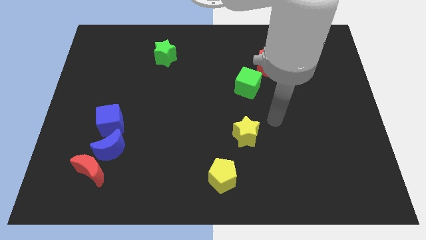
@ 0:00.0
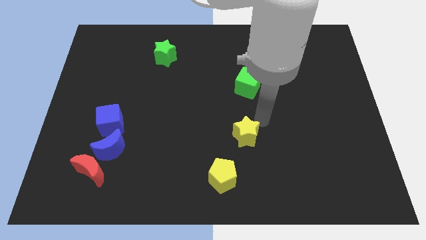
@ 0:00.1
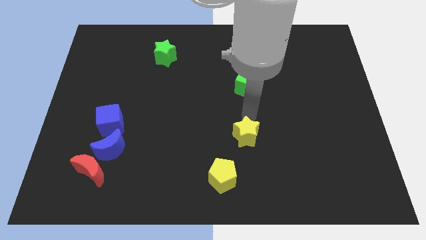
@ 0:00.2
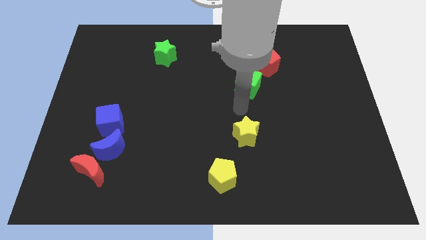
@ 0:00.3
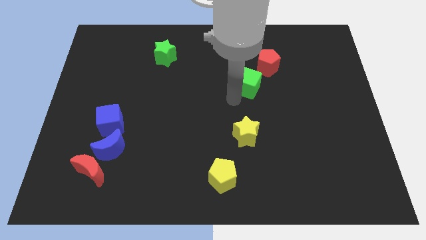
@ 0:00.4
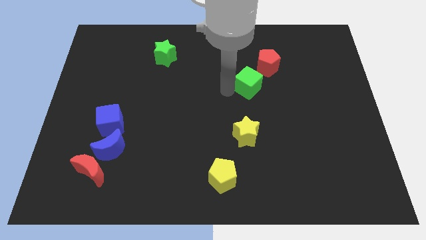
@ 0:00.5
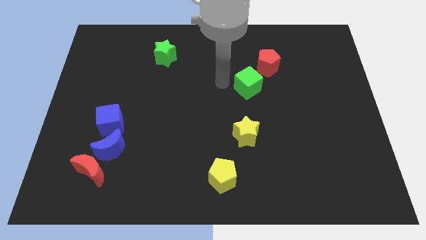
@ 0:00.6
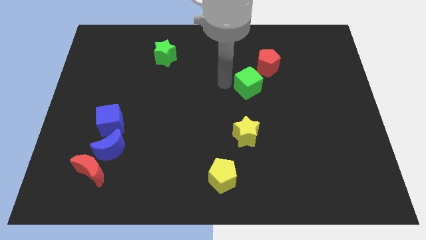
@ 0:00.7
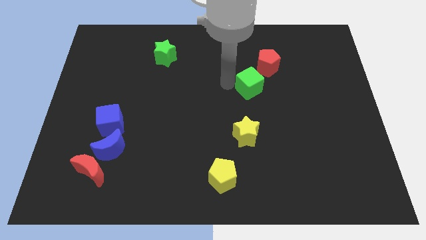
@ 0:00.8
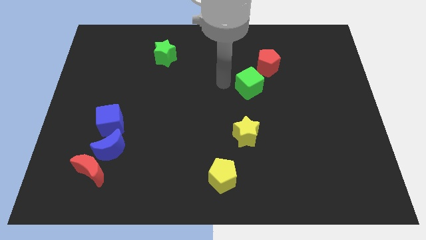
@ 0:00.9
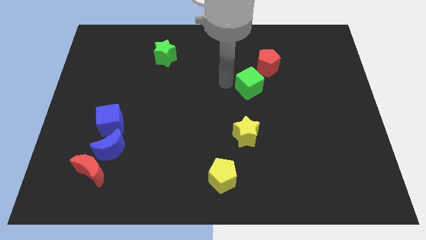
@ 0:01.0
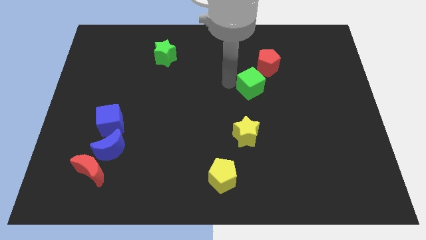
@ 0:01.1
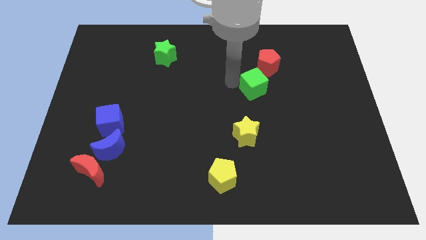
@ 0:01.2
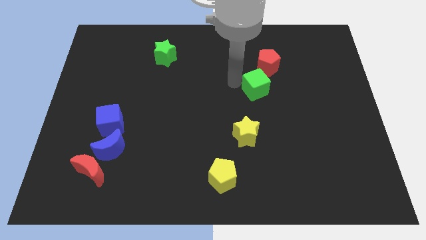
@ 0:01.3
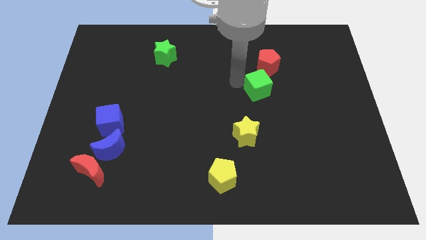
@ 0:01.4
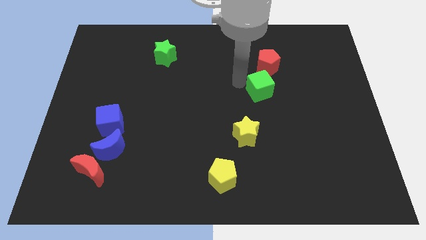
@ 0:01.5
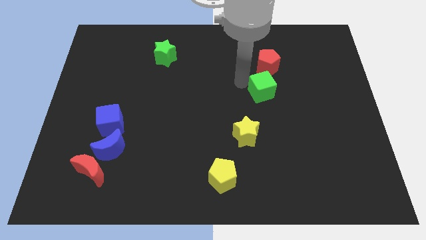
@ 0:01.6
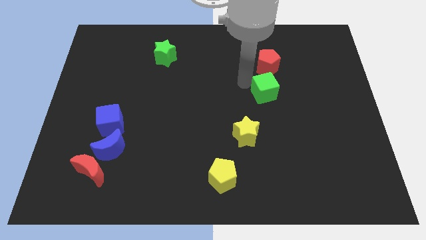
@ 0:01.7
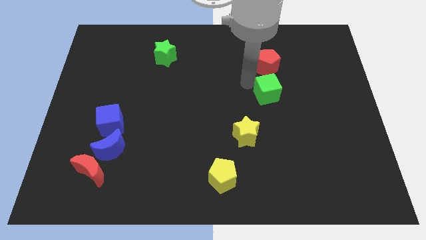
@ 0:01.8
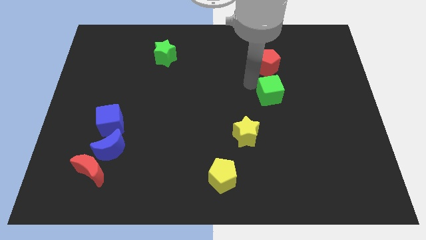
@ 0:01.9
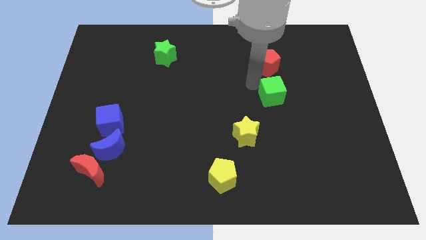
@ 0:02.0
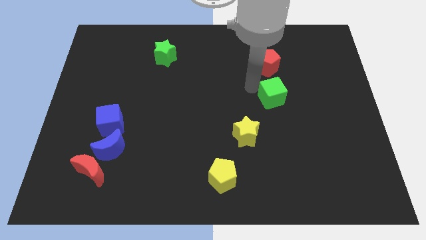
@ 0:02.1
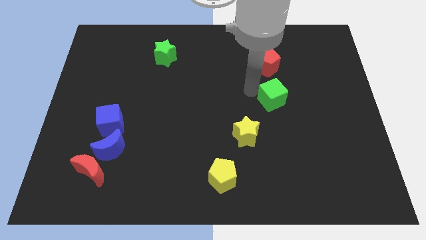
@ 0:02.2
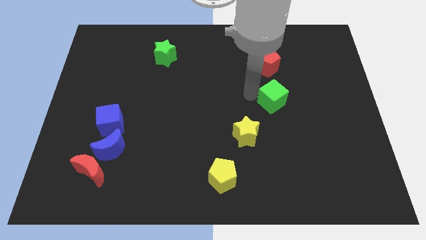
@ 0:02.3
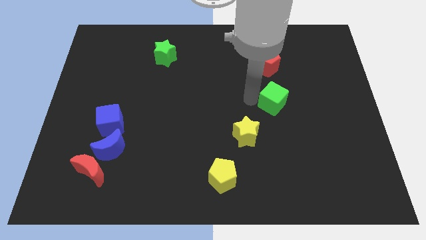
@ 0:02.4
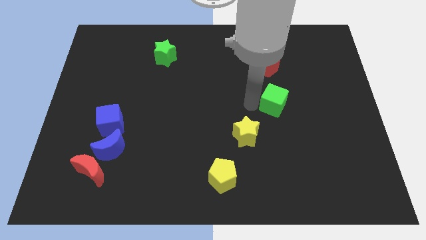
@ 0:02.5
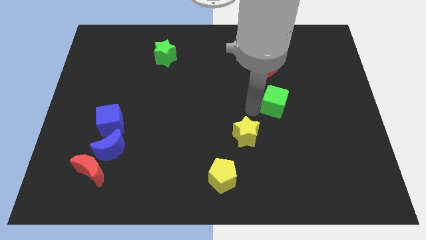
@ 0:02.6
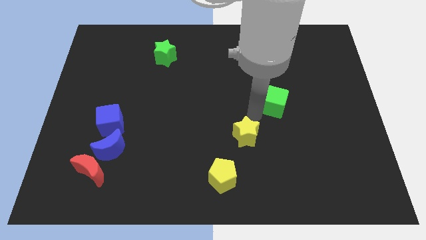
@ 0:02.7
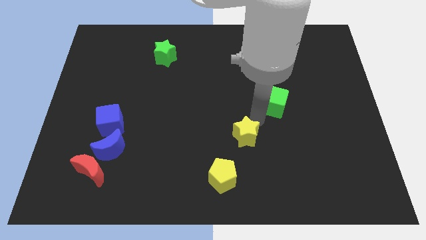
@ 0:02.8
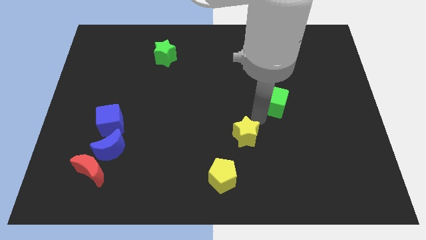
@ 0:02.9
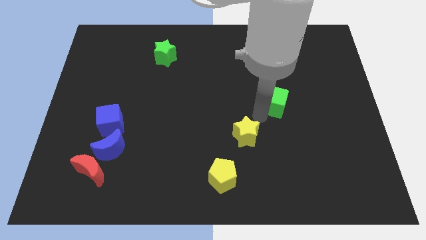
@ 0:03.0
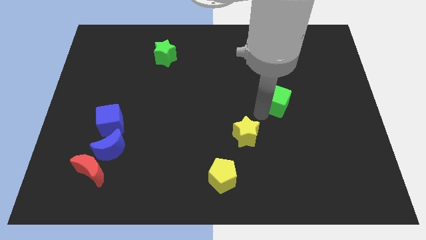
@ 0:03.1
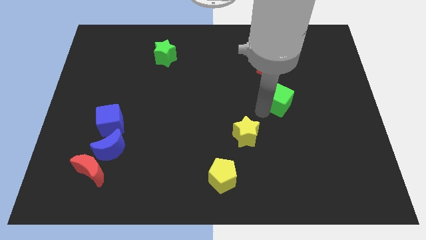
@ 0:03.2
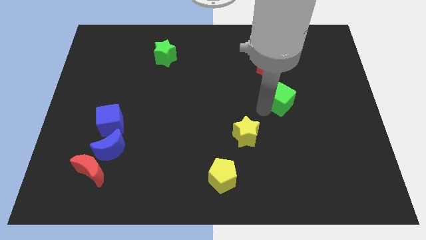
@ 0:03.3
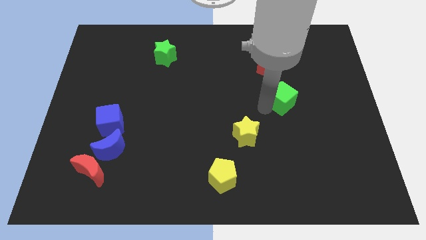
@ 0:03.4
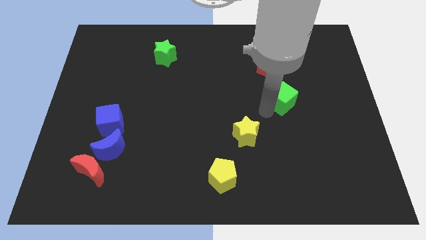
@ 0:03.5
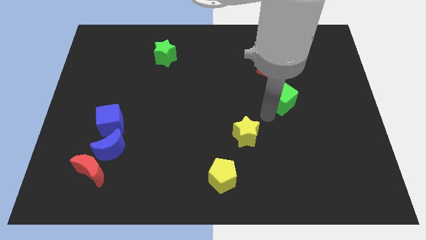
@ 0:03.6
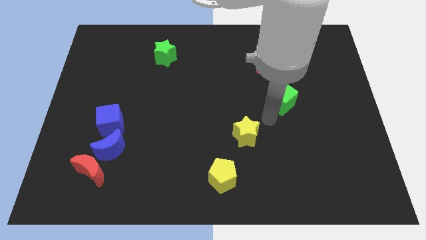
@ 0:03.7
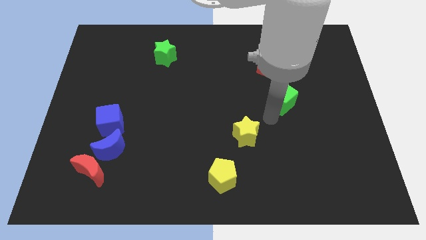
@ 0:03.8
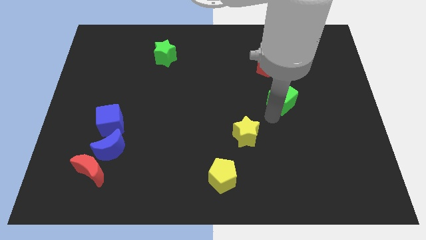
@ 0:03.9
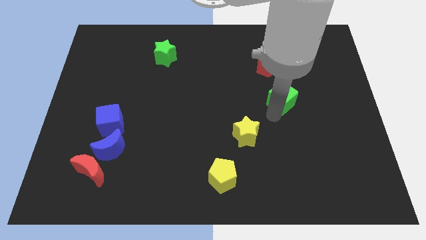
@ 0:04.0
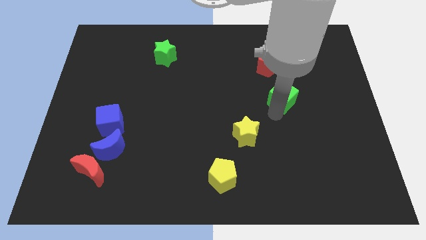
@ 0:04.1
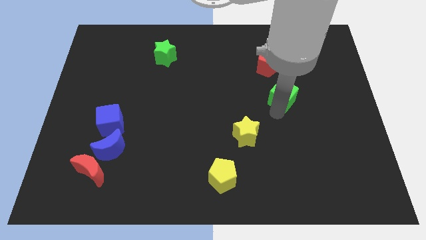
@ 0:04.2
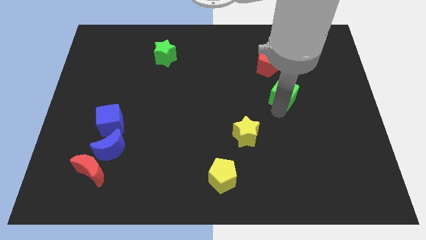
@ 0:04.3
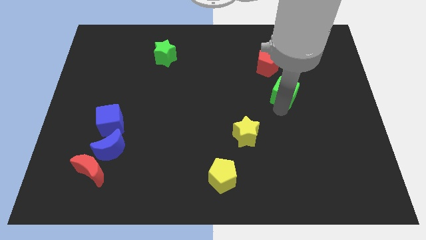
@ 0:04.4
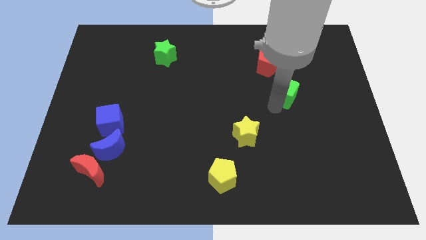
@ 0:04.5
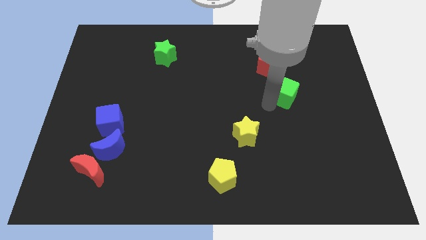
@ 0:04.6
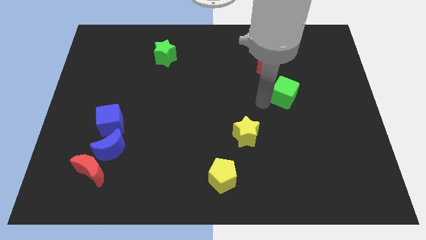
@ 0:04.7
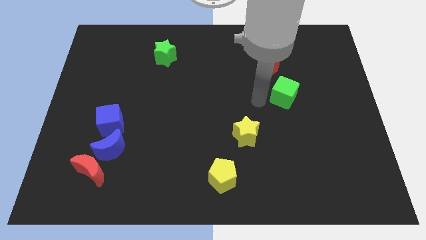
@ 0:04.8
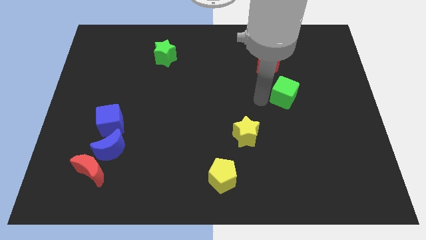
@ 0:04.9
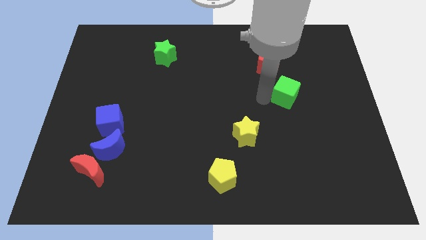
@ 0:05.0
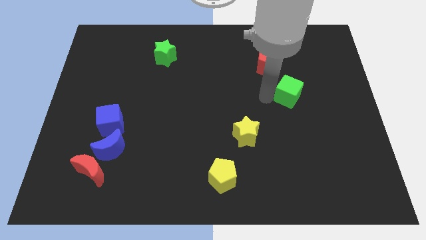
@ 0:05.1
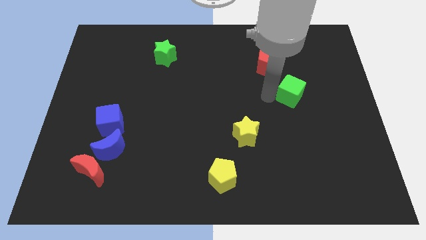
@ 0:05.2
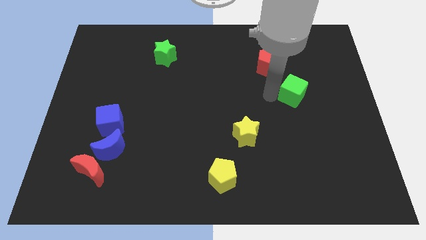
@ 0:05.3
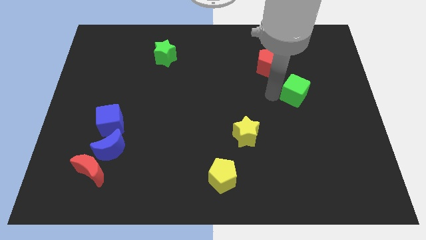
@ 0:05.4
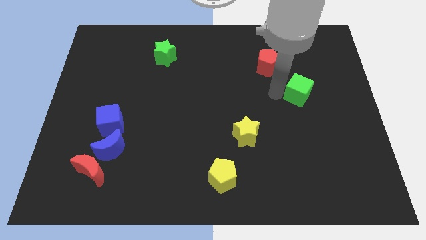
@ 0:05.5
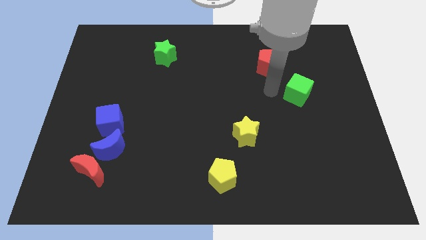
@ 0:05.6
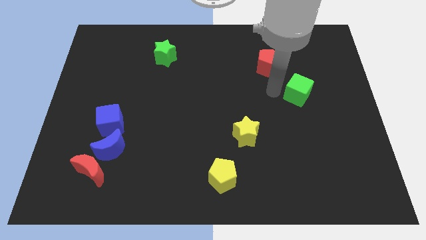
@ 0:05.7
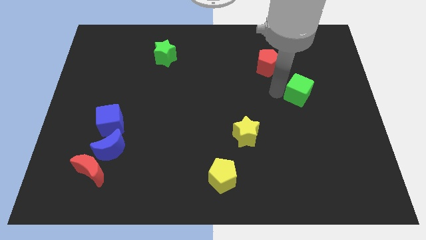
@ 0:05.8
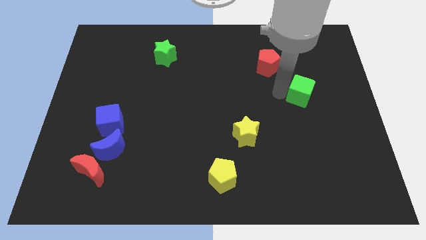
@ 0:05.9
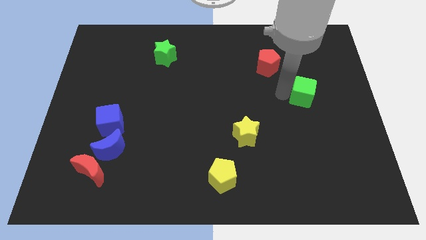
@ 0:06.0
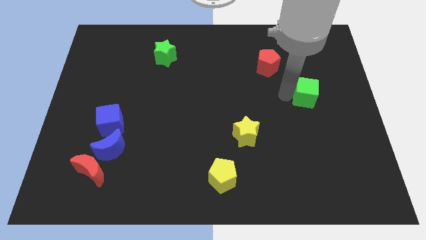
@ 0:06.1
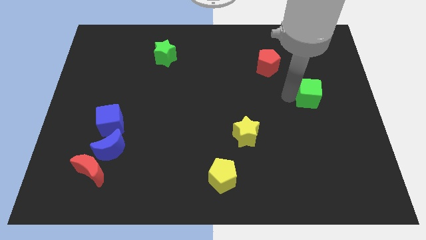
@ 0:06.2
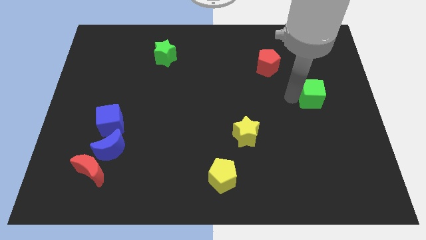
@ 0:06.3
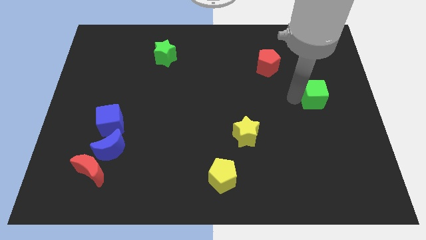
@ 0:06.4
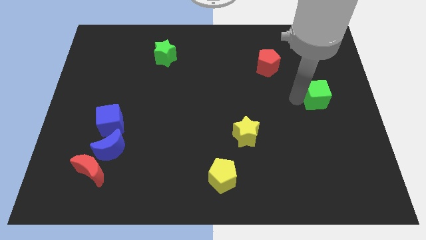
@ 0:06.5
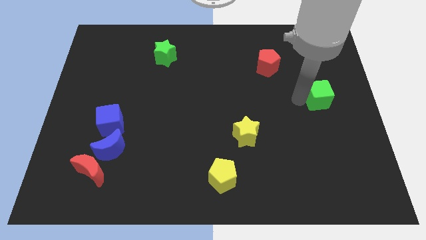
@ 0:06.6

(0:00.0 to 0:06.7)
put the green cube to the right side of the board
